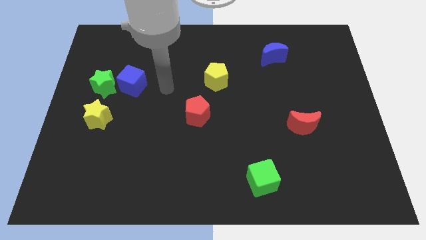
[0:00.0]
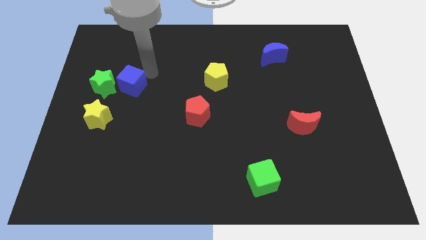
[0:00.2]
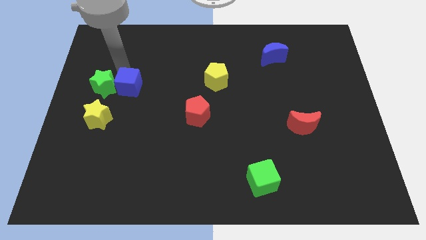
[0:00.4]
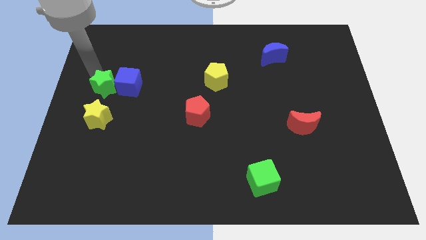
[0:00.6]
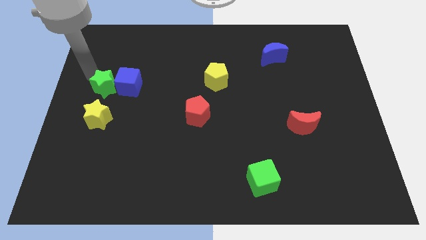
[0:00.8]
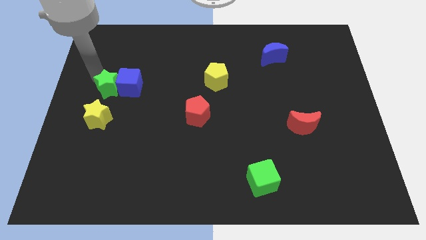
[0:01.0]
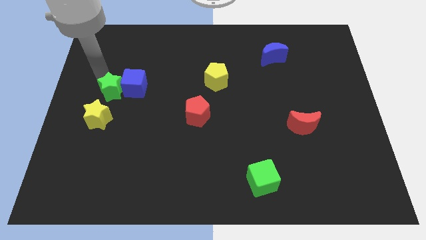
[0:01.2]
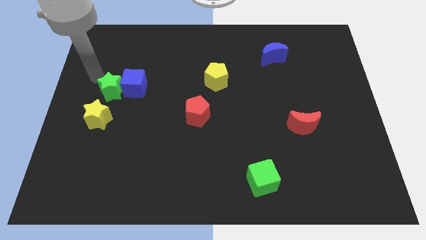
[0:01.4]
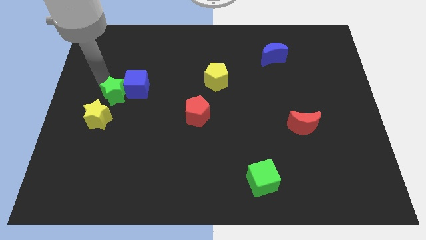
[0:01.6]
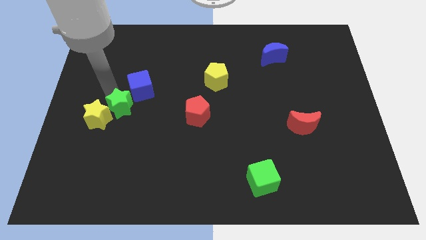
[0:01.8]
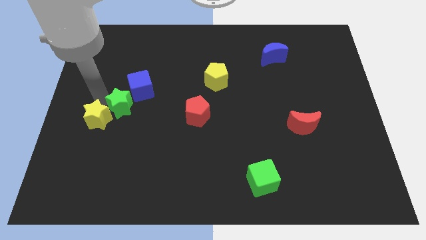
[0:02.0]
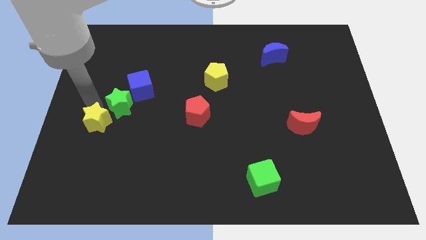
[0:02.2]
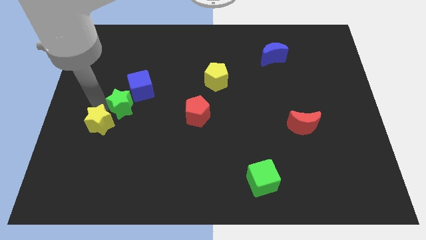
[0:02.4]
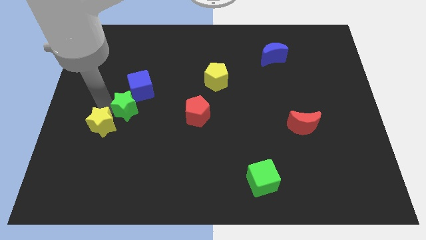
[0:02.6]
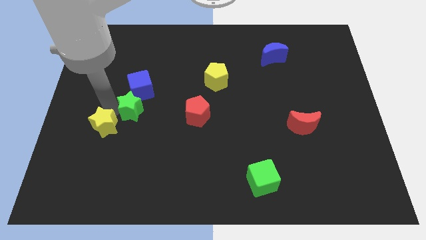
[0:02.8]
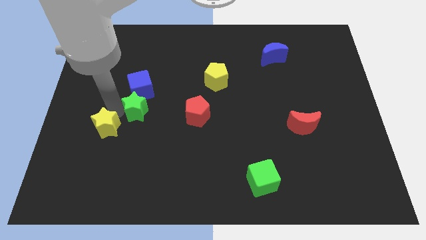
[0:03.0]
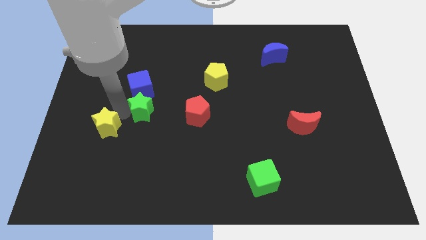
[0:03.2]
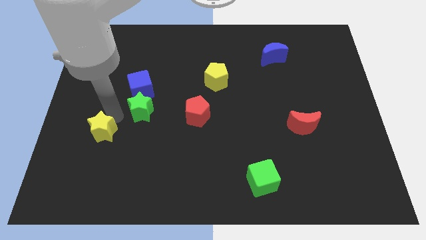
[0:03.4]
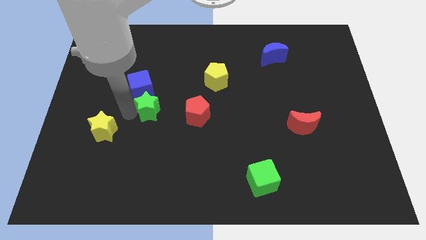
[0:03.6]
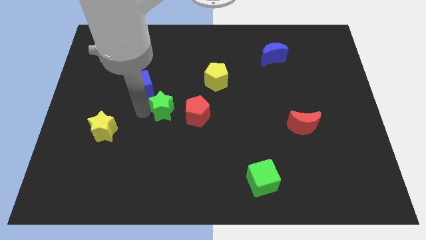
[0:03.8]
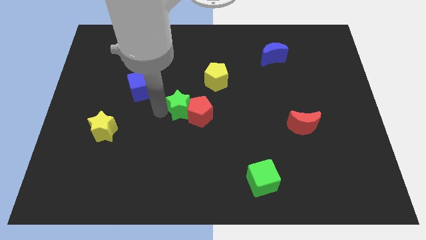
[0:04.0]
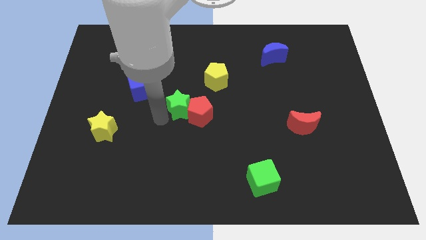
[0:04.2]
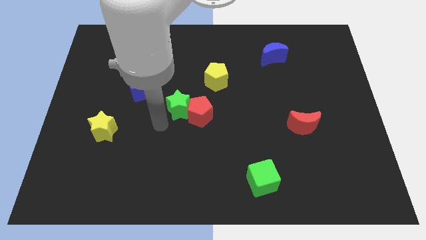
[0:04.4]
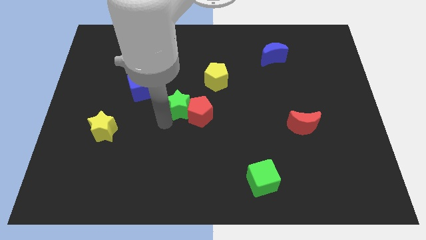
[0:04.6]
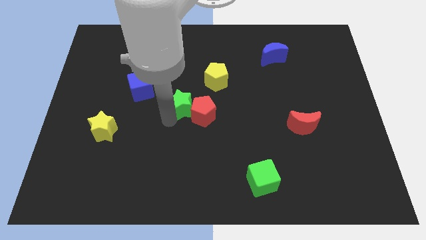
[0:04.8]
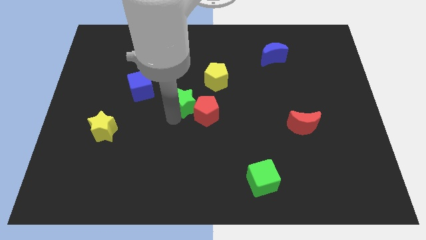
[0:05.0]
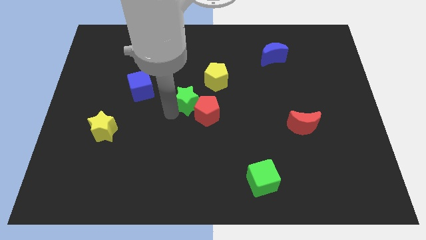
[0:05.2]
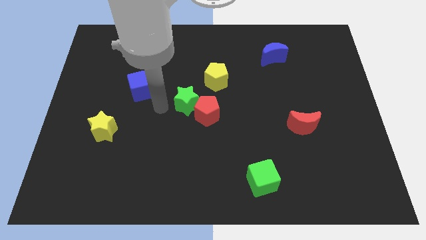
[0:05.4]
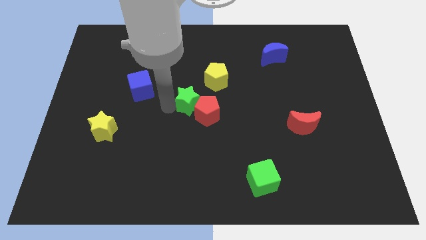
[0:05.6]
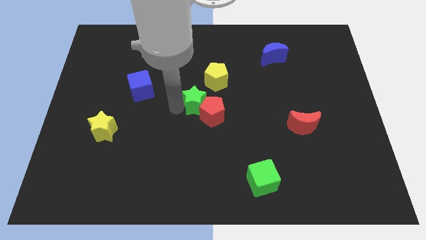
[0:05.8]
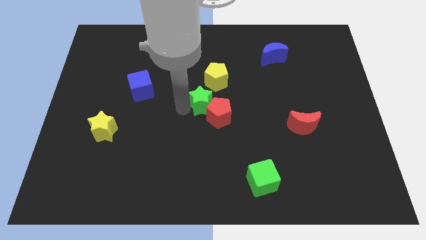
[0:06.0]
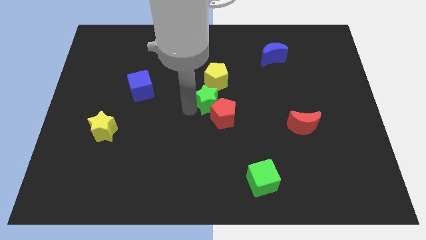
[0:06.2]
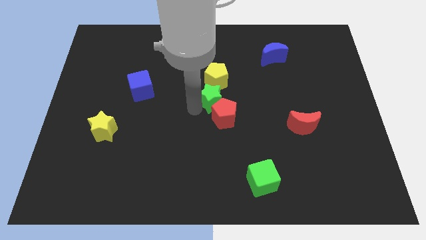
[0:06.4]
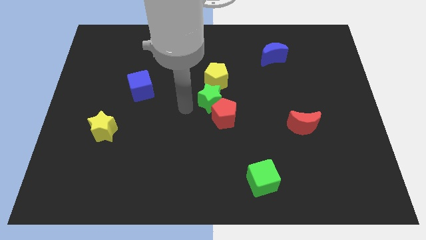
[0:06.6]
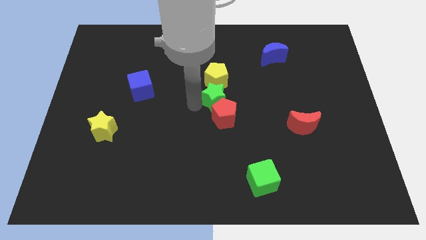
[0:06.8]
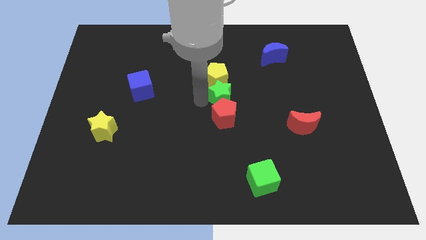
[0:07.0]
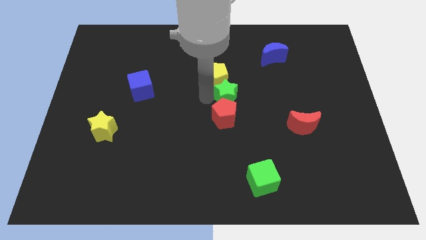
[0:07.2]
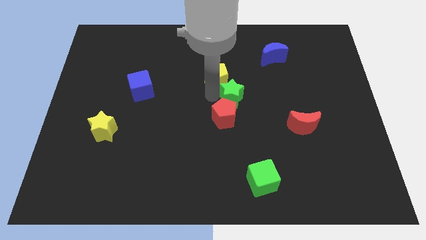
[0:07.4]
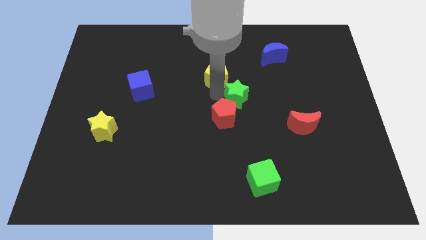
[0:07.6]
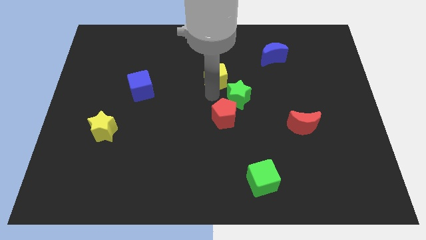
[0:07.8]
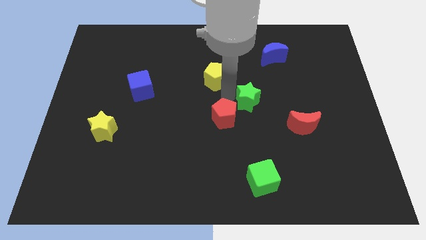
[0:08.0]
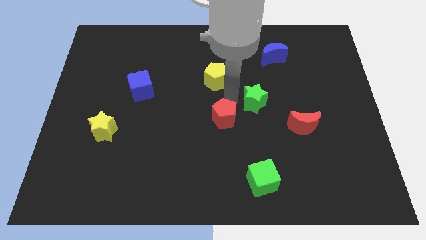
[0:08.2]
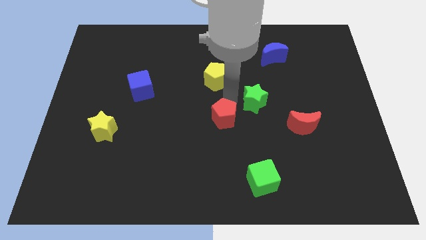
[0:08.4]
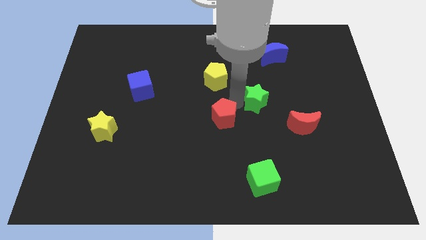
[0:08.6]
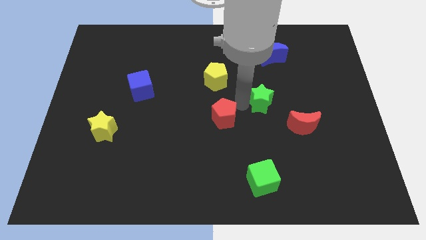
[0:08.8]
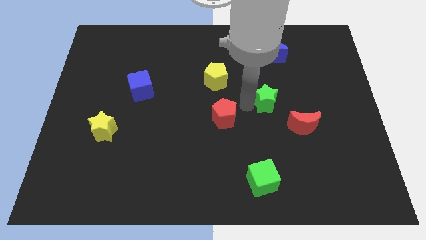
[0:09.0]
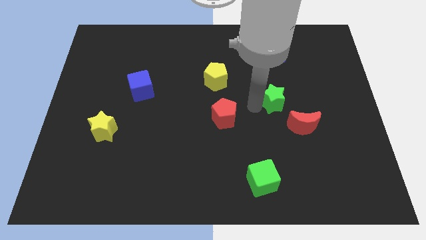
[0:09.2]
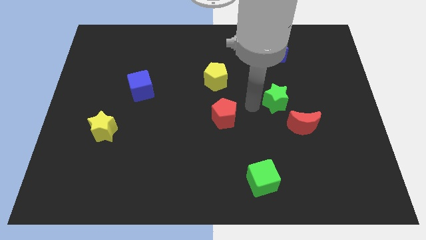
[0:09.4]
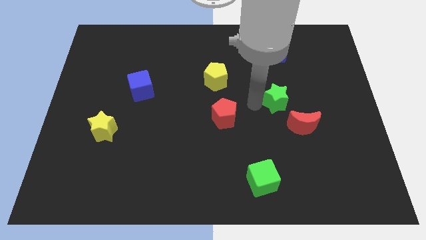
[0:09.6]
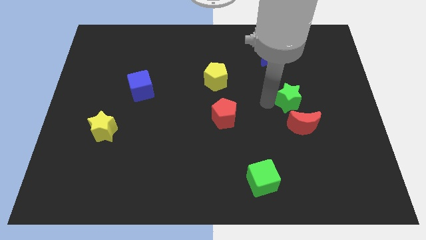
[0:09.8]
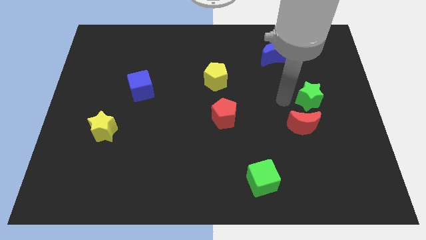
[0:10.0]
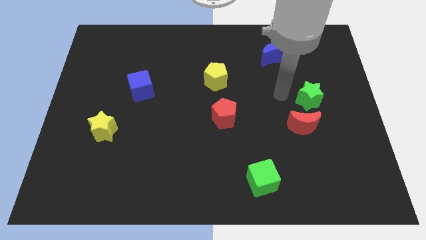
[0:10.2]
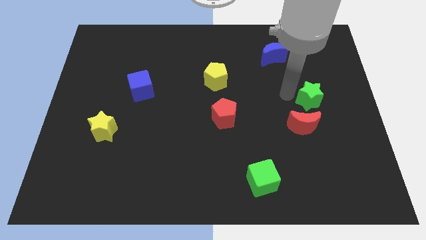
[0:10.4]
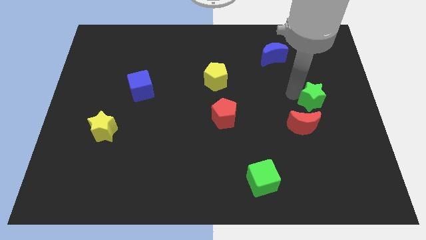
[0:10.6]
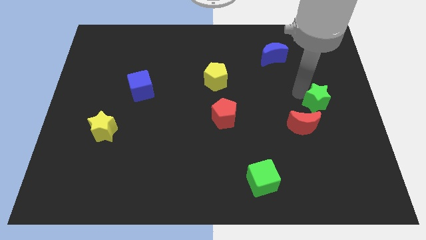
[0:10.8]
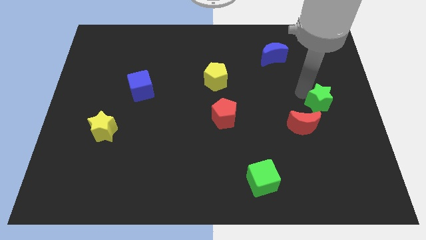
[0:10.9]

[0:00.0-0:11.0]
put the green star to the center right

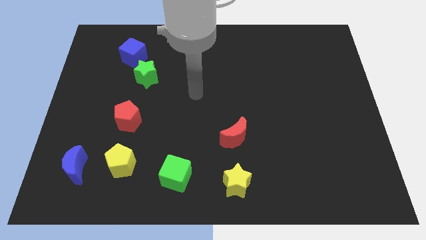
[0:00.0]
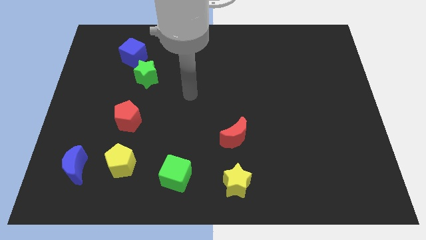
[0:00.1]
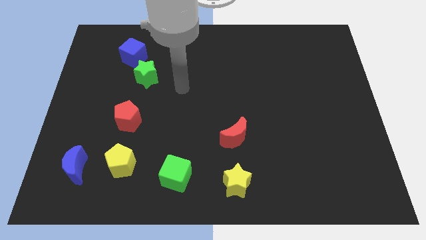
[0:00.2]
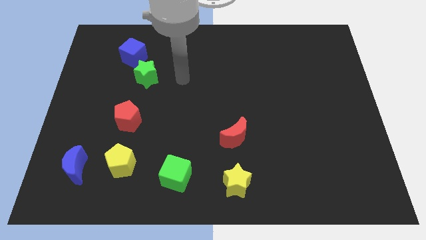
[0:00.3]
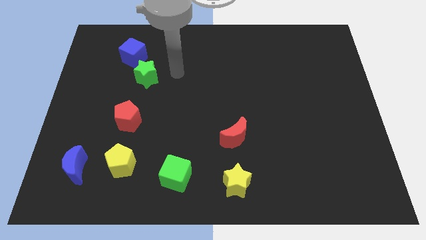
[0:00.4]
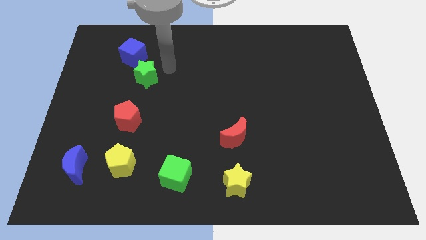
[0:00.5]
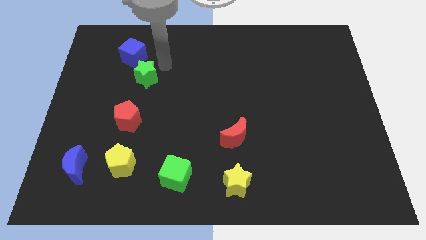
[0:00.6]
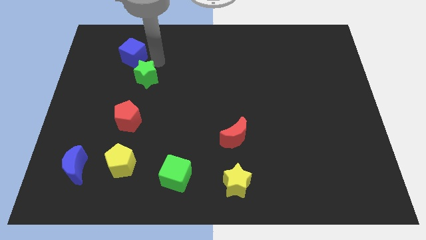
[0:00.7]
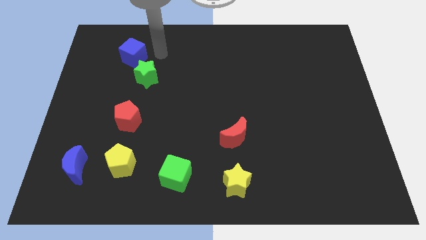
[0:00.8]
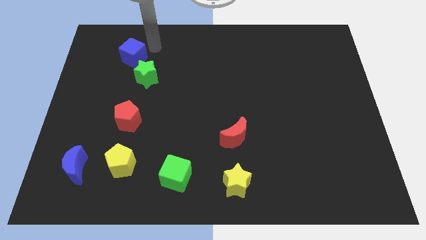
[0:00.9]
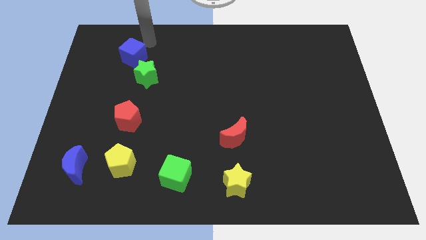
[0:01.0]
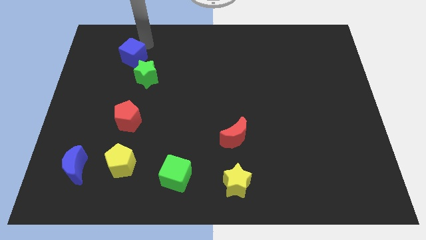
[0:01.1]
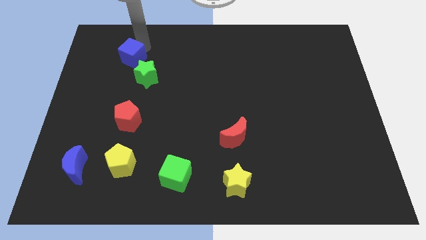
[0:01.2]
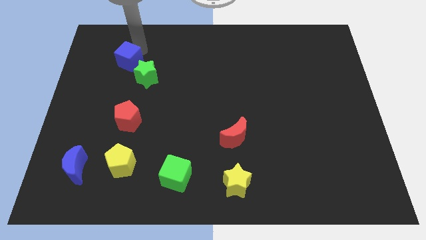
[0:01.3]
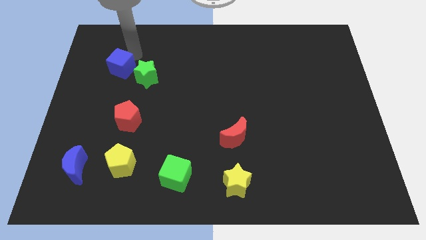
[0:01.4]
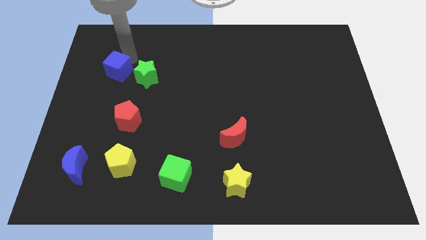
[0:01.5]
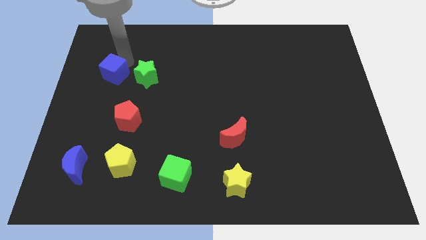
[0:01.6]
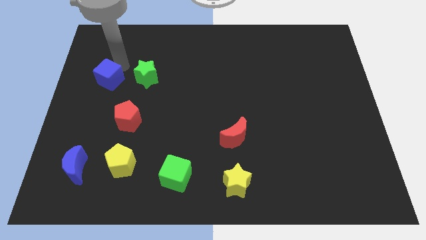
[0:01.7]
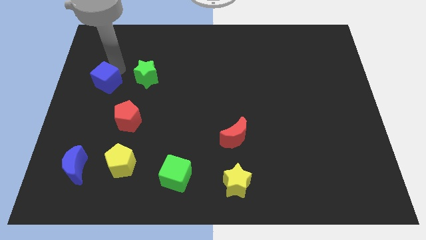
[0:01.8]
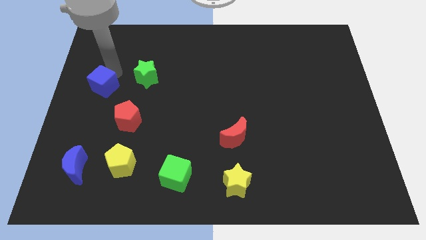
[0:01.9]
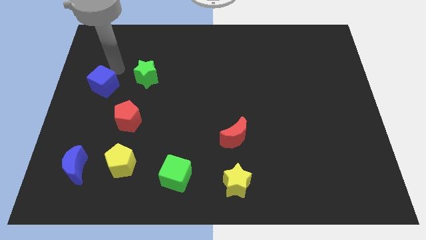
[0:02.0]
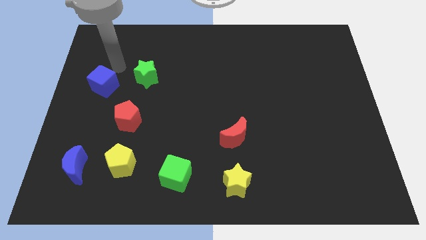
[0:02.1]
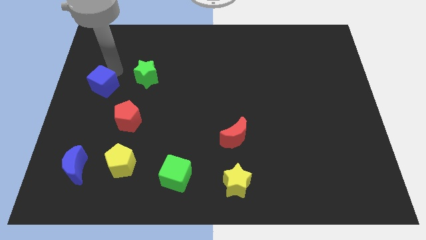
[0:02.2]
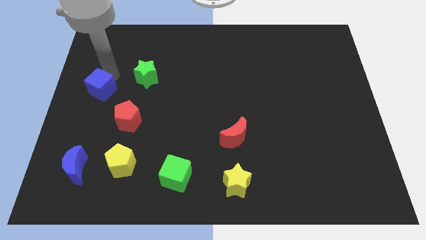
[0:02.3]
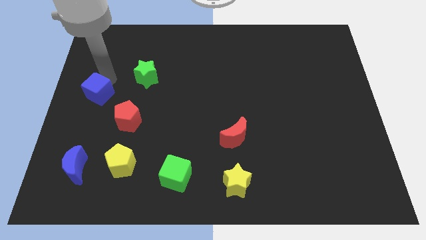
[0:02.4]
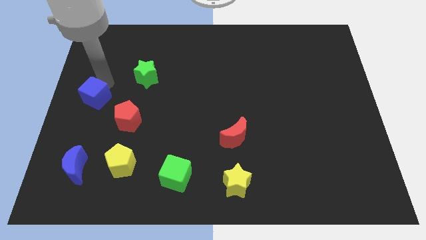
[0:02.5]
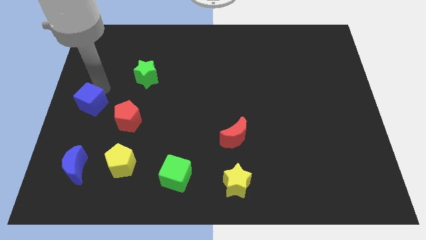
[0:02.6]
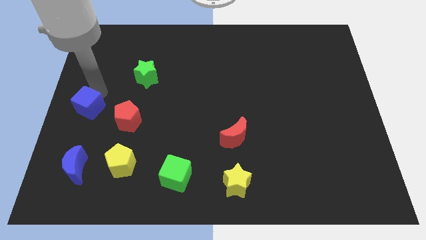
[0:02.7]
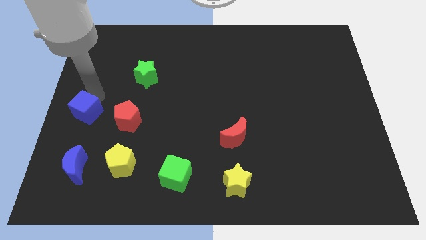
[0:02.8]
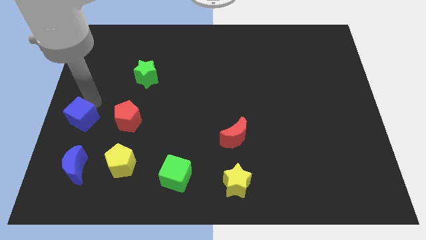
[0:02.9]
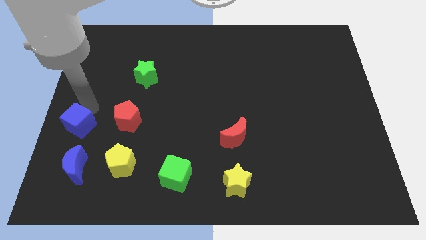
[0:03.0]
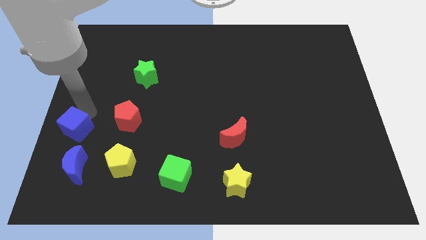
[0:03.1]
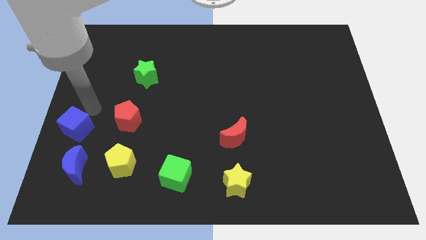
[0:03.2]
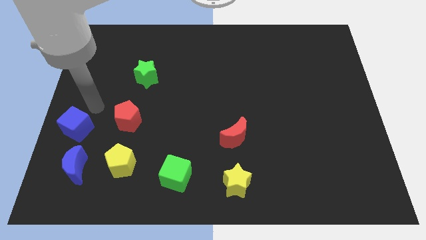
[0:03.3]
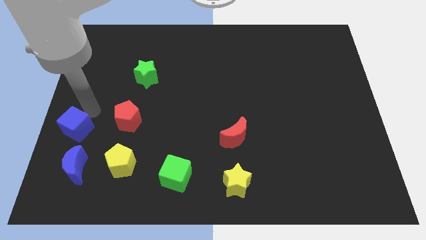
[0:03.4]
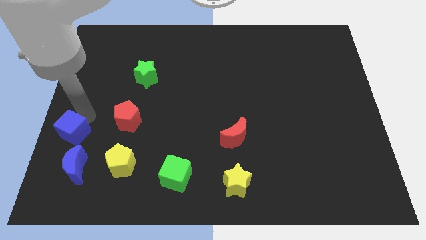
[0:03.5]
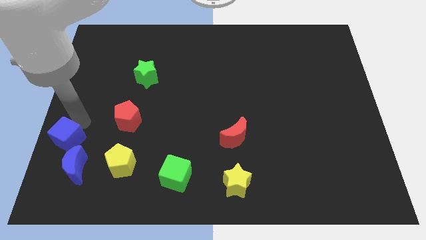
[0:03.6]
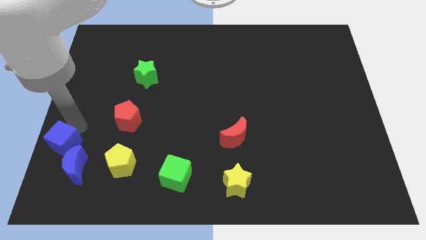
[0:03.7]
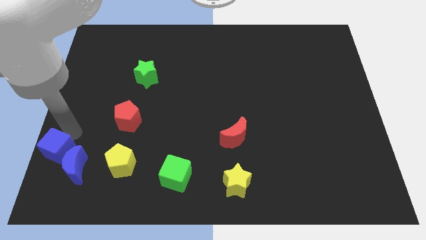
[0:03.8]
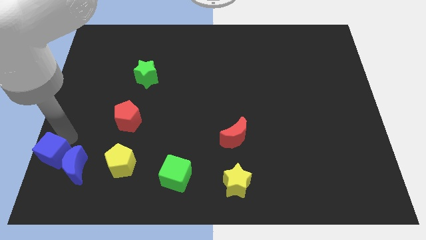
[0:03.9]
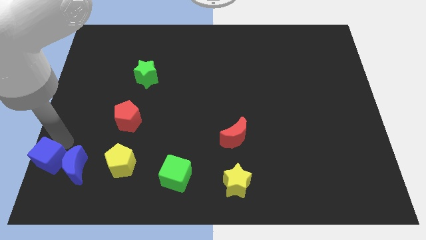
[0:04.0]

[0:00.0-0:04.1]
push the blue cube to the lower left corner
